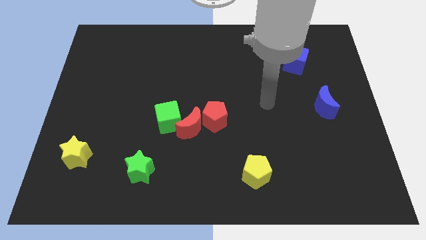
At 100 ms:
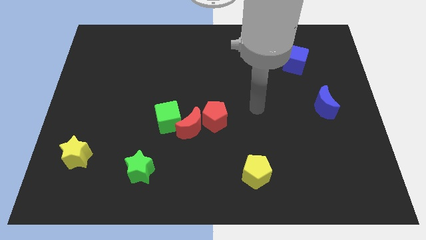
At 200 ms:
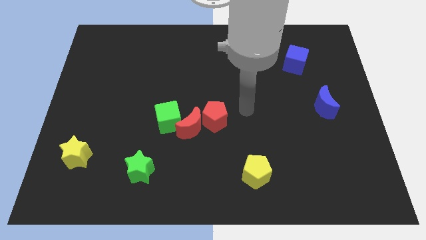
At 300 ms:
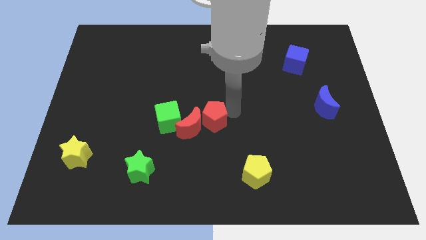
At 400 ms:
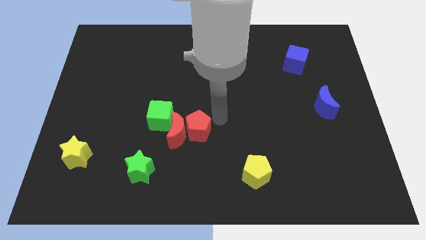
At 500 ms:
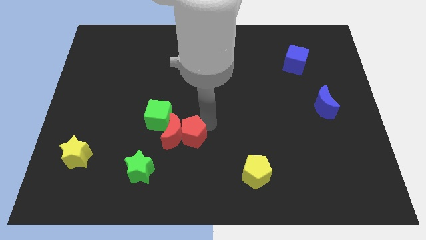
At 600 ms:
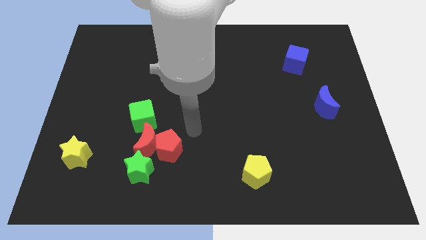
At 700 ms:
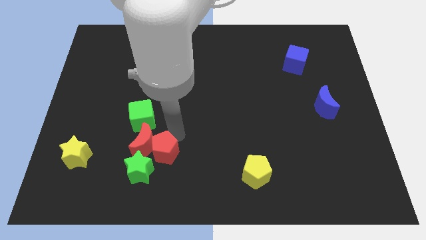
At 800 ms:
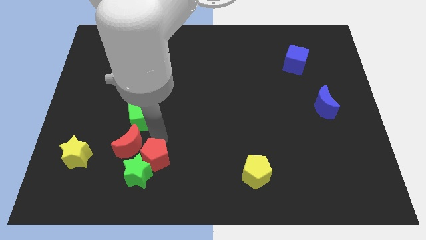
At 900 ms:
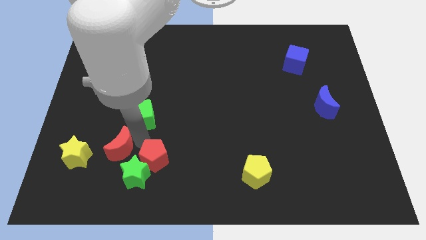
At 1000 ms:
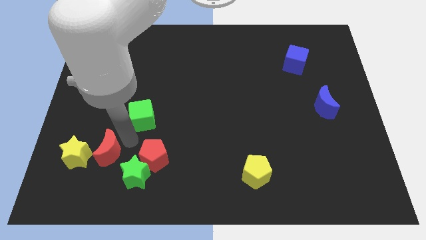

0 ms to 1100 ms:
separate the green cube from the red moon

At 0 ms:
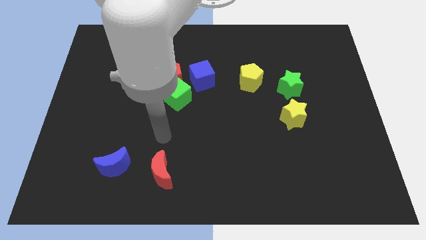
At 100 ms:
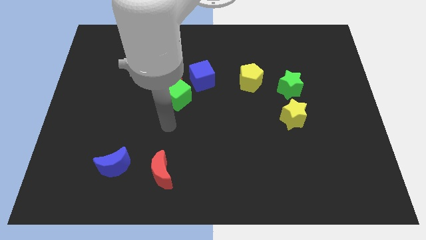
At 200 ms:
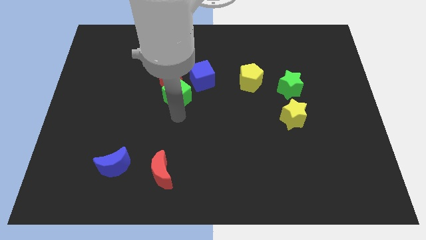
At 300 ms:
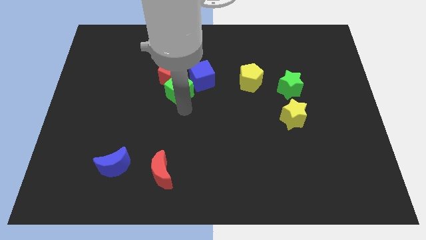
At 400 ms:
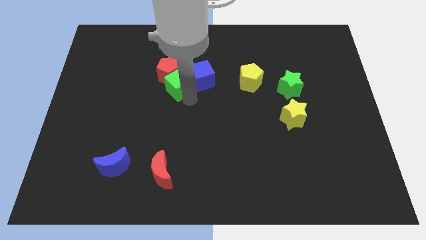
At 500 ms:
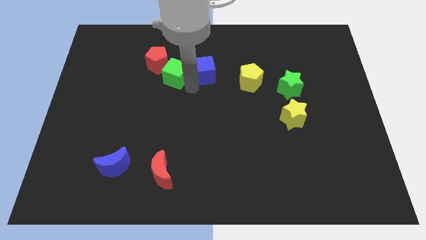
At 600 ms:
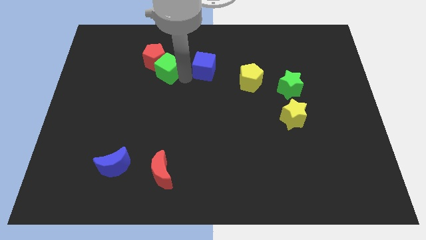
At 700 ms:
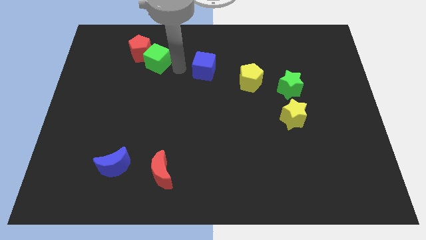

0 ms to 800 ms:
separate the red pentagon from the green cube and blue cube

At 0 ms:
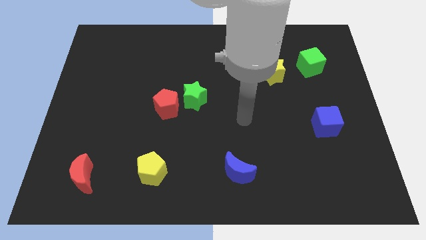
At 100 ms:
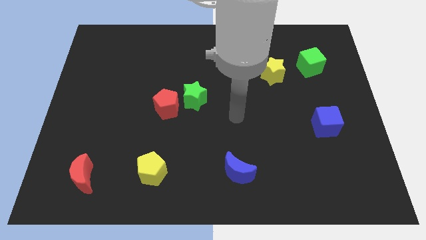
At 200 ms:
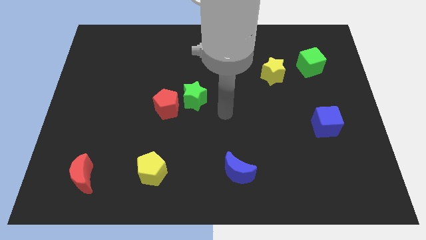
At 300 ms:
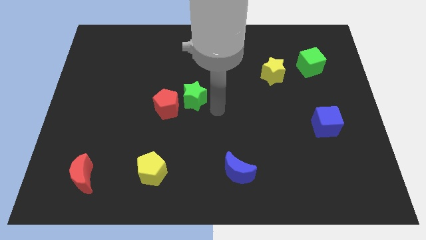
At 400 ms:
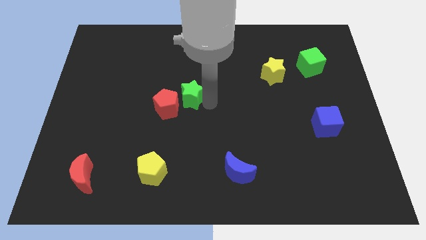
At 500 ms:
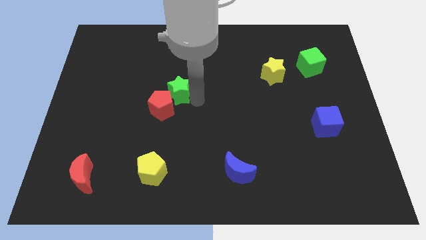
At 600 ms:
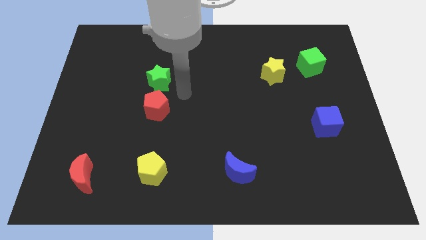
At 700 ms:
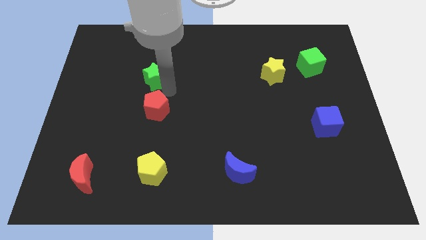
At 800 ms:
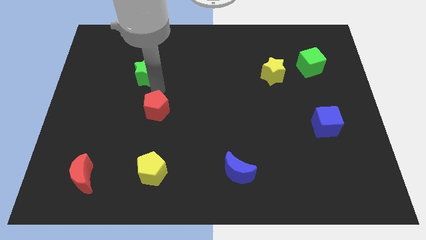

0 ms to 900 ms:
pull the red pentagon apart from the green star

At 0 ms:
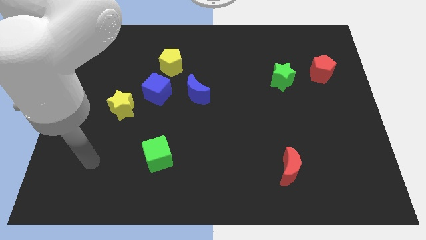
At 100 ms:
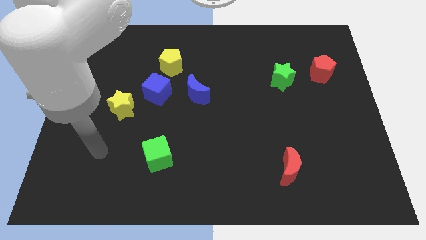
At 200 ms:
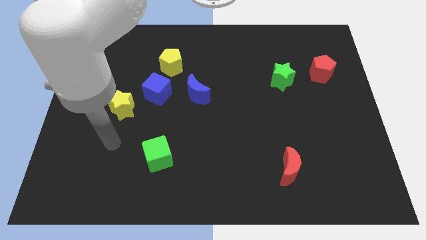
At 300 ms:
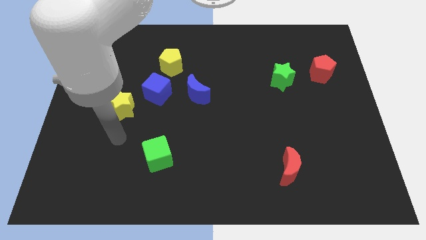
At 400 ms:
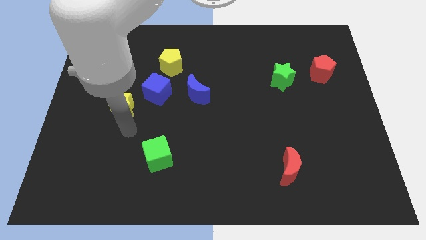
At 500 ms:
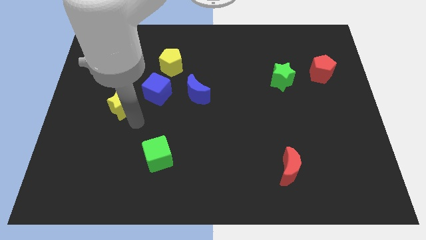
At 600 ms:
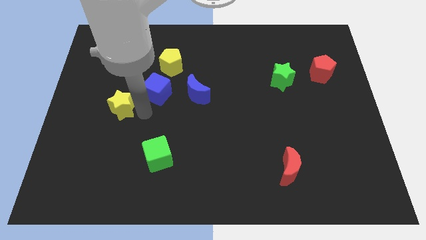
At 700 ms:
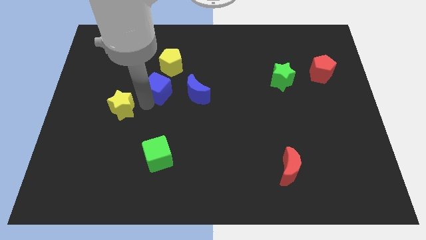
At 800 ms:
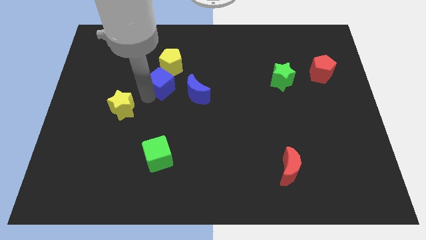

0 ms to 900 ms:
separate the yellow star from the blue cube

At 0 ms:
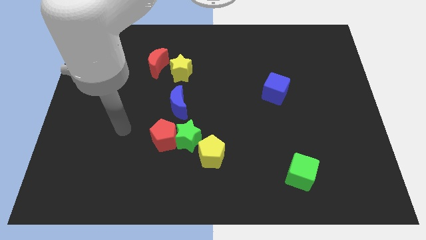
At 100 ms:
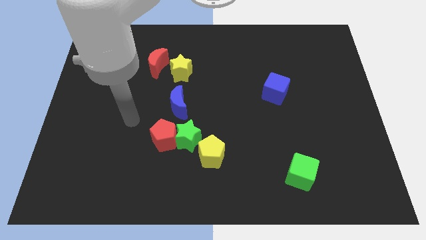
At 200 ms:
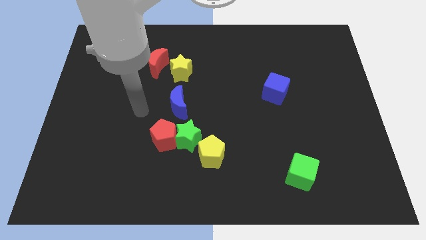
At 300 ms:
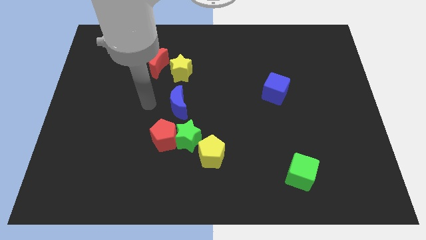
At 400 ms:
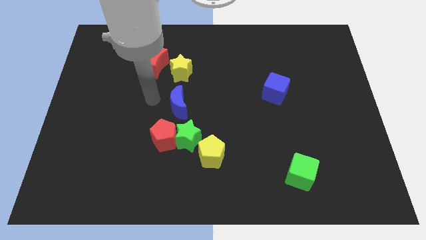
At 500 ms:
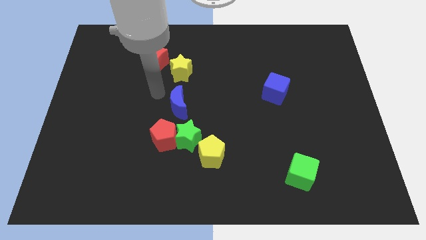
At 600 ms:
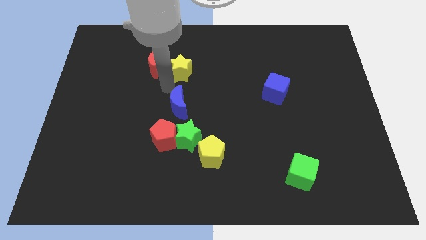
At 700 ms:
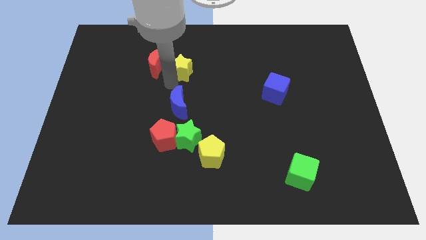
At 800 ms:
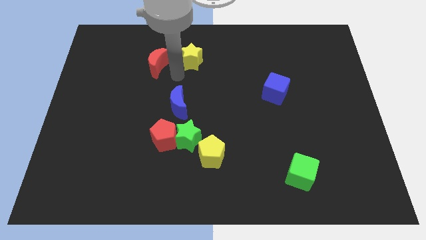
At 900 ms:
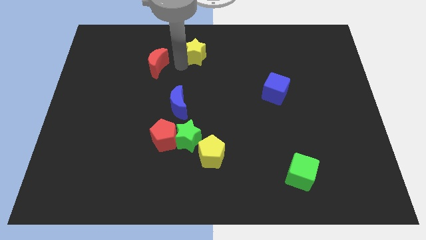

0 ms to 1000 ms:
move the red moon away from the yellow star

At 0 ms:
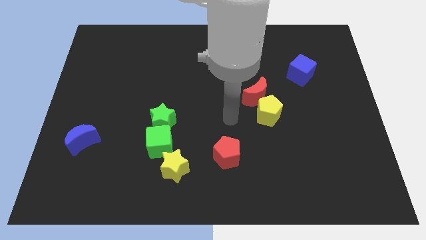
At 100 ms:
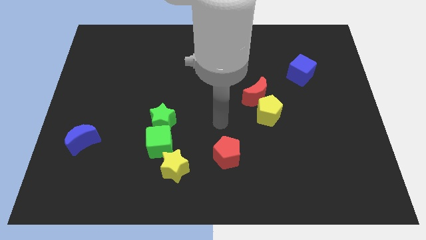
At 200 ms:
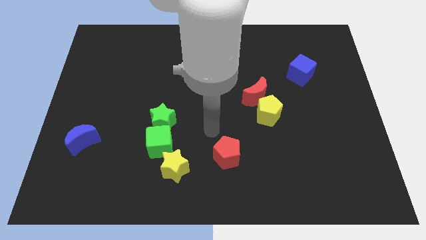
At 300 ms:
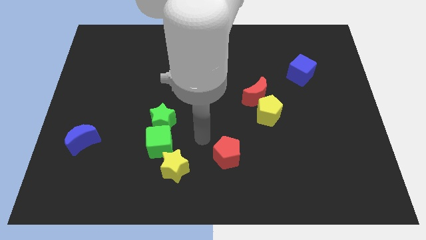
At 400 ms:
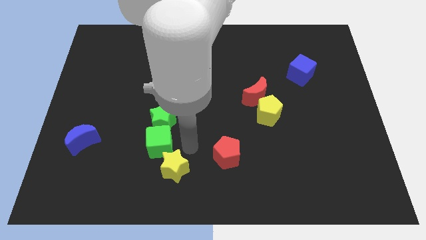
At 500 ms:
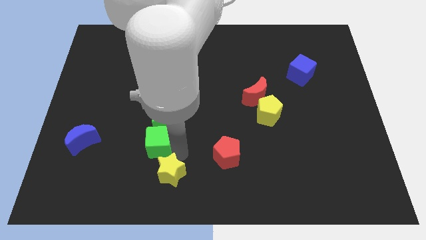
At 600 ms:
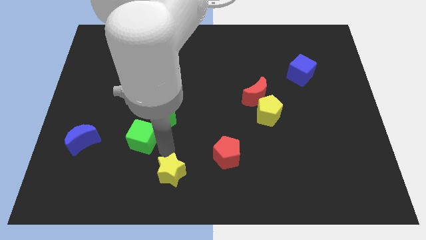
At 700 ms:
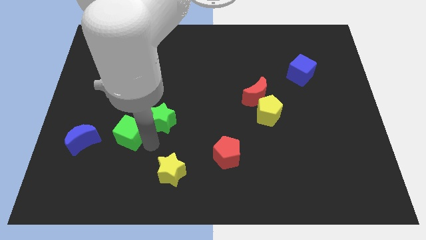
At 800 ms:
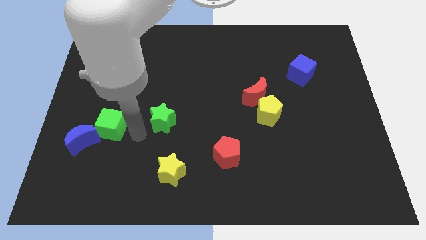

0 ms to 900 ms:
pull the green star apart from the green cube

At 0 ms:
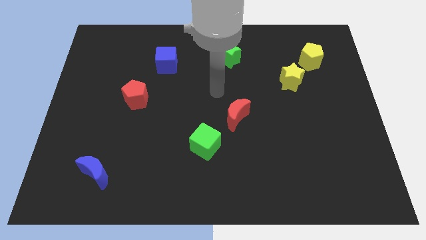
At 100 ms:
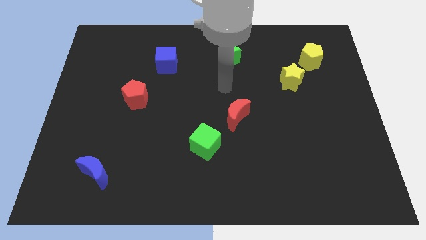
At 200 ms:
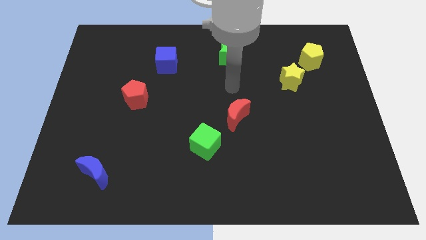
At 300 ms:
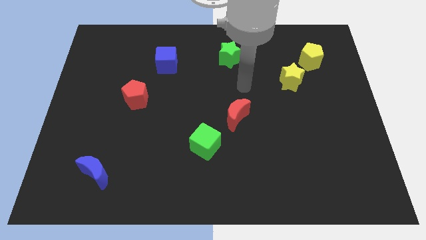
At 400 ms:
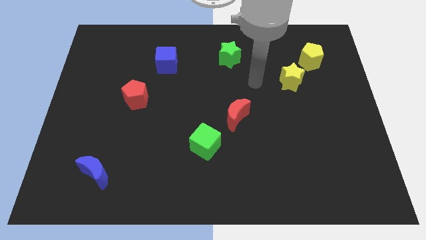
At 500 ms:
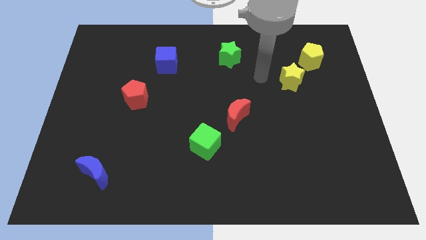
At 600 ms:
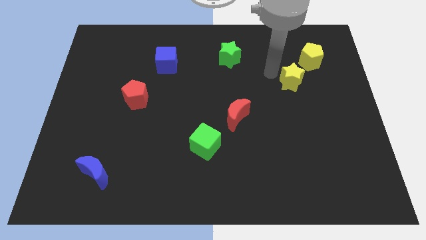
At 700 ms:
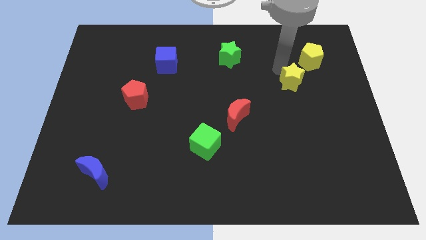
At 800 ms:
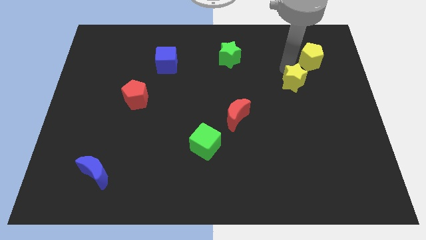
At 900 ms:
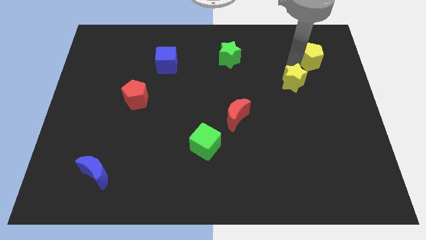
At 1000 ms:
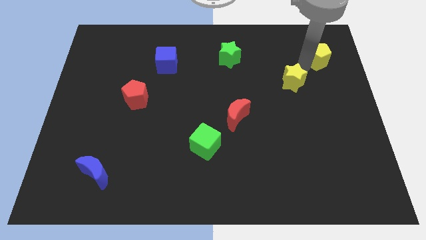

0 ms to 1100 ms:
move the yellow star away from the yellow pentagon

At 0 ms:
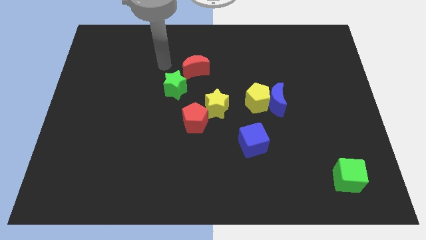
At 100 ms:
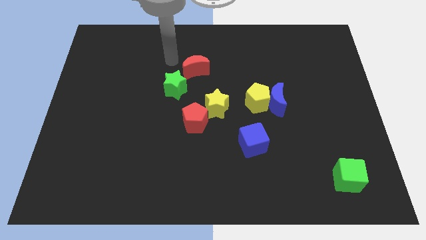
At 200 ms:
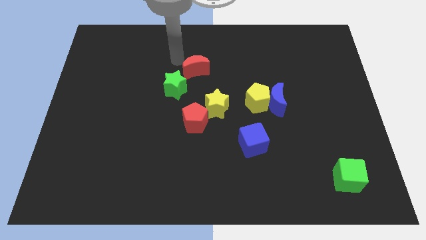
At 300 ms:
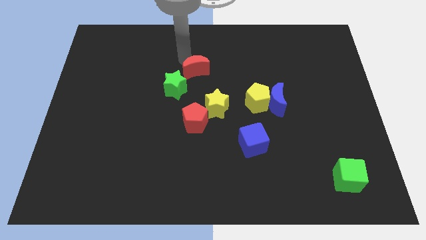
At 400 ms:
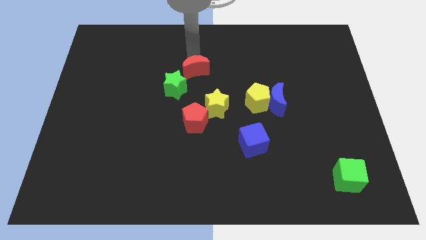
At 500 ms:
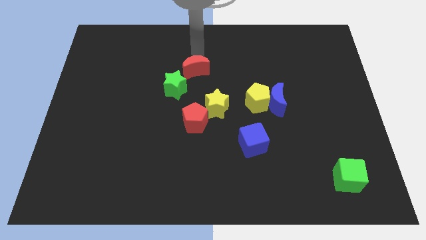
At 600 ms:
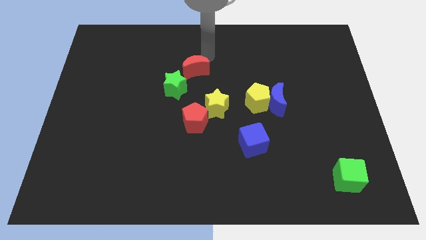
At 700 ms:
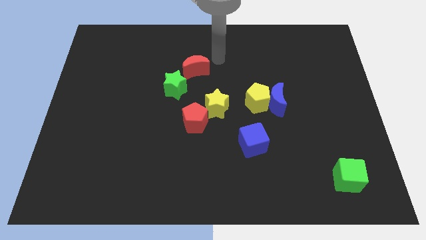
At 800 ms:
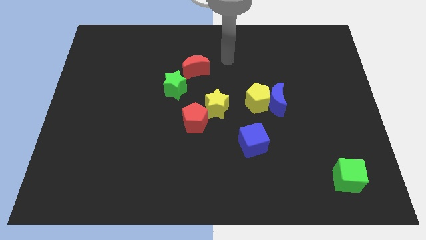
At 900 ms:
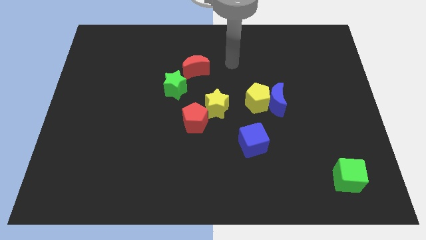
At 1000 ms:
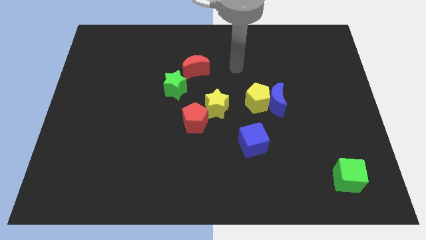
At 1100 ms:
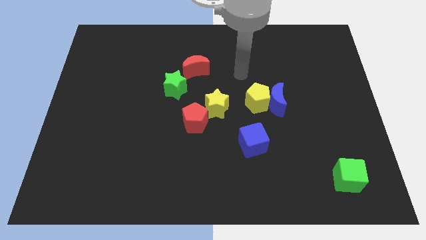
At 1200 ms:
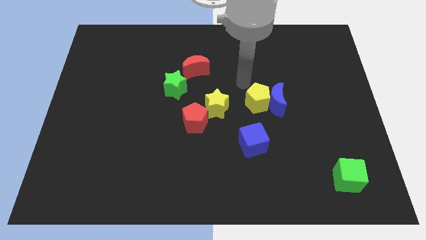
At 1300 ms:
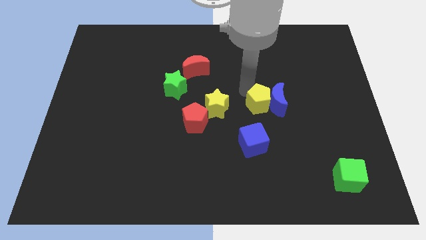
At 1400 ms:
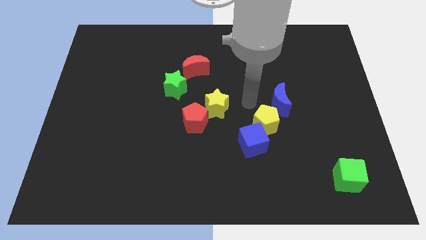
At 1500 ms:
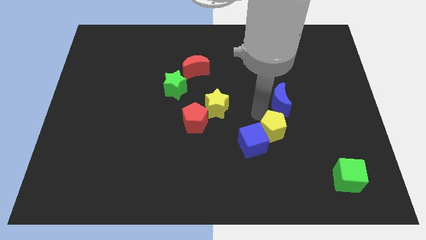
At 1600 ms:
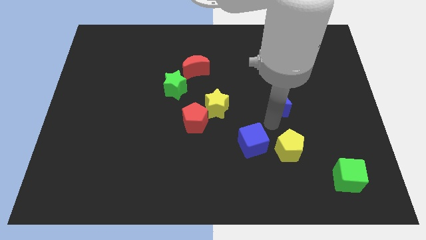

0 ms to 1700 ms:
move the blue moon away from the yellow pentagon

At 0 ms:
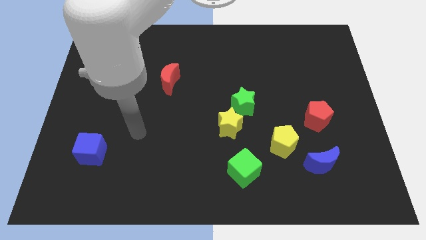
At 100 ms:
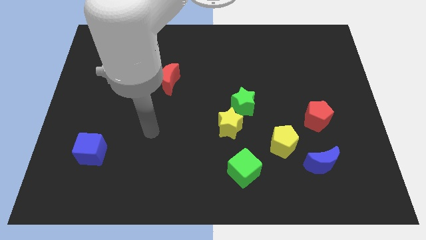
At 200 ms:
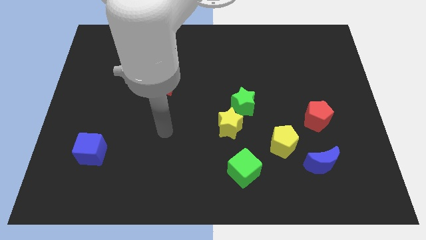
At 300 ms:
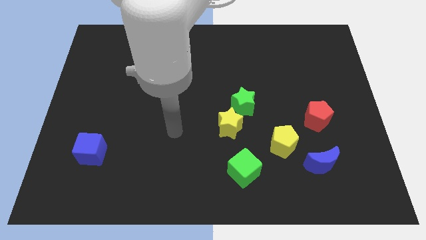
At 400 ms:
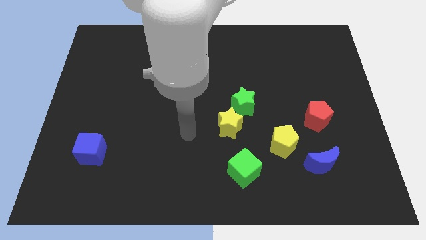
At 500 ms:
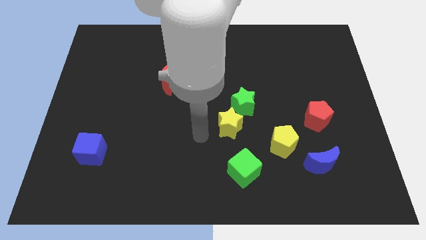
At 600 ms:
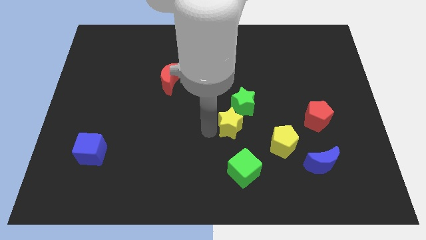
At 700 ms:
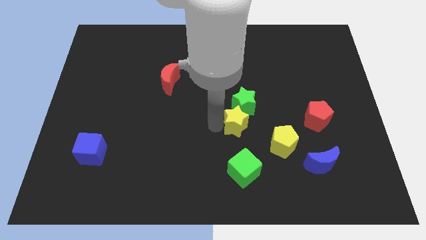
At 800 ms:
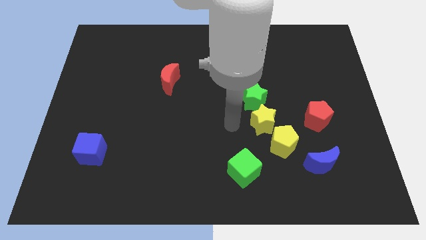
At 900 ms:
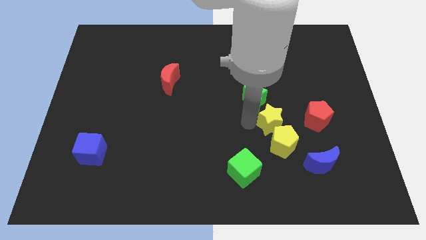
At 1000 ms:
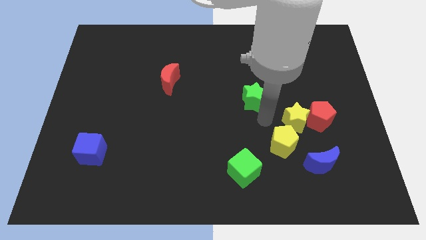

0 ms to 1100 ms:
separate the green star from the yellow star
